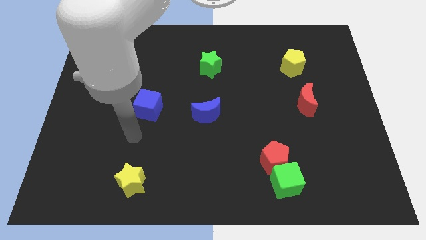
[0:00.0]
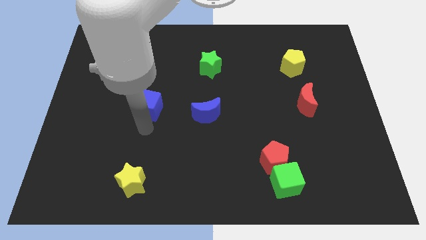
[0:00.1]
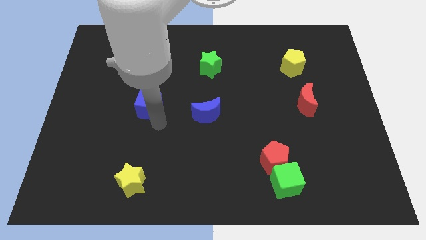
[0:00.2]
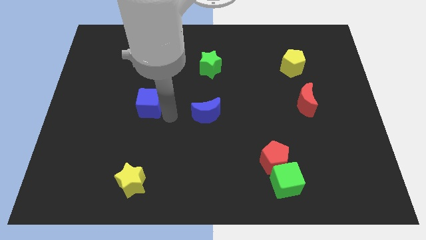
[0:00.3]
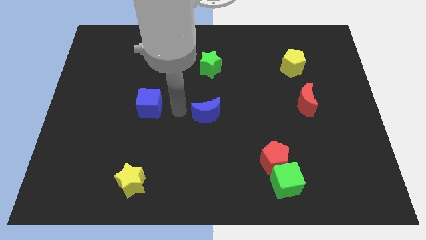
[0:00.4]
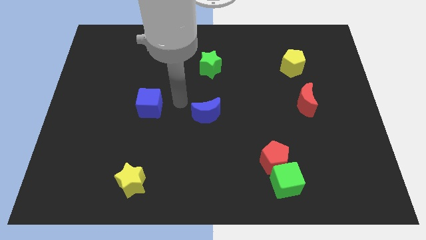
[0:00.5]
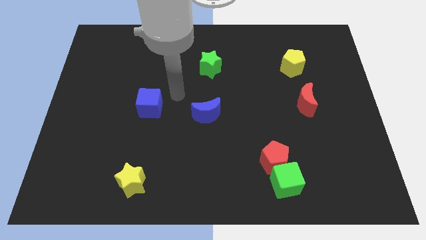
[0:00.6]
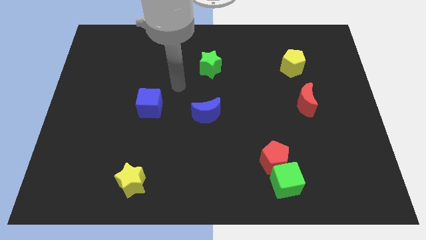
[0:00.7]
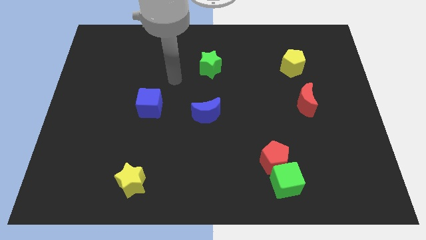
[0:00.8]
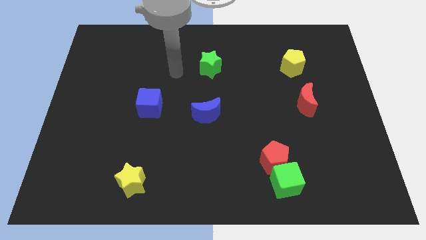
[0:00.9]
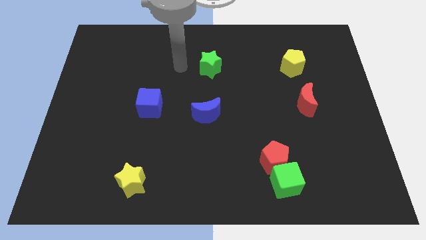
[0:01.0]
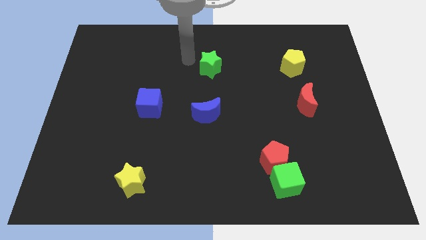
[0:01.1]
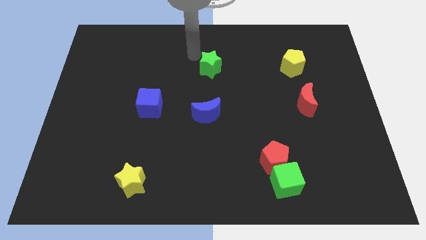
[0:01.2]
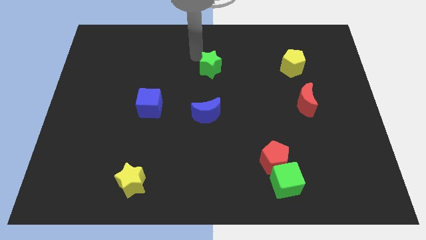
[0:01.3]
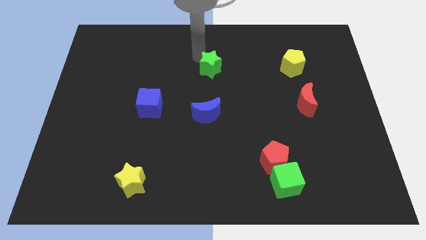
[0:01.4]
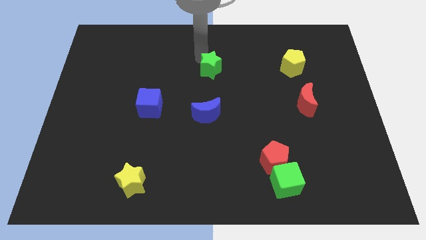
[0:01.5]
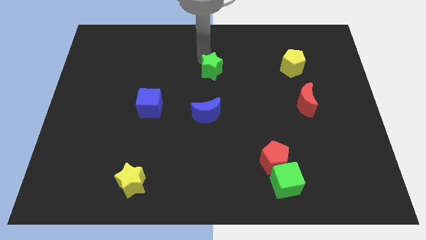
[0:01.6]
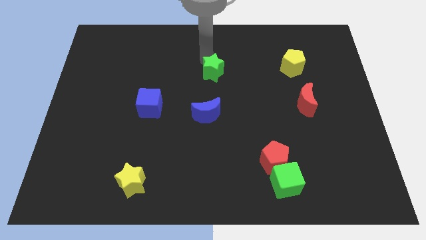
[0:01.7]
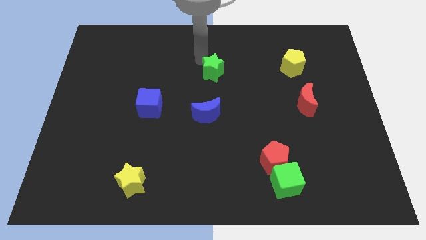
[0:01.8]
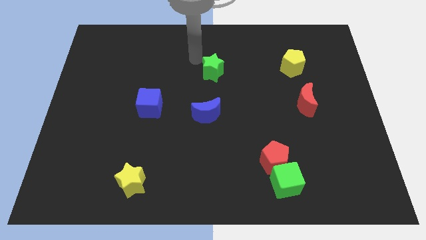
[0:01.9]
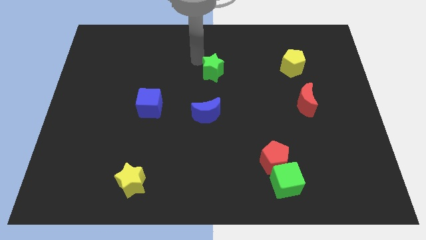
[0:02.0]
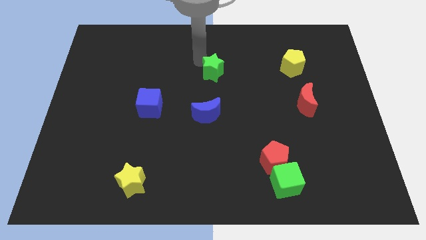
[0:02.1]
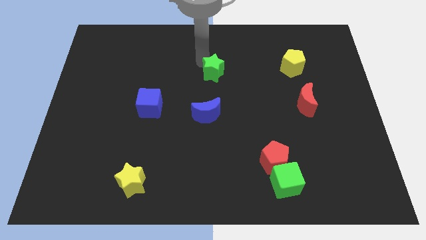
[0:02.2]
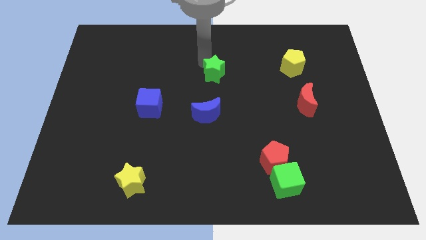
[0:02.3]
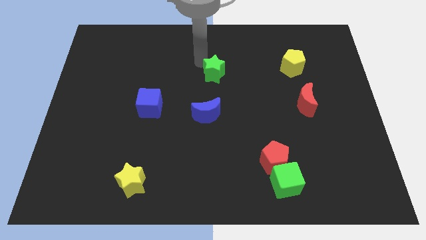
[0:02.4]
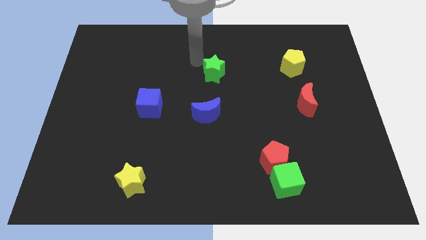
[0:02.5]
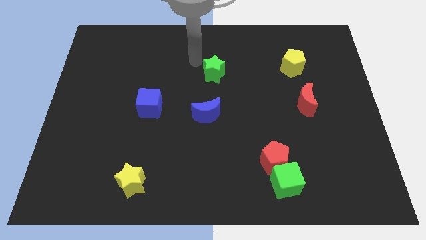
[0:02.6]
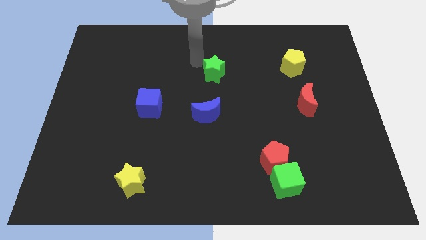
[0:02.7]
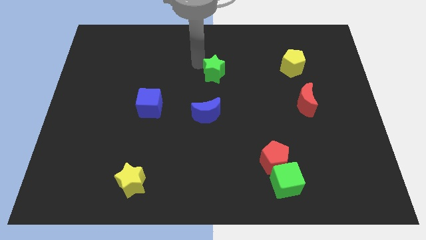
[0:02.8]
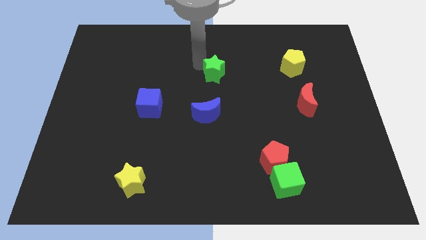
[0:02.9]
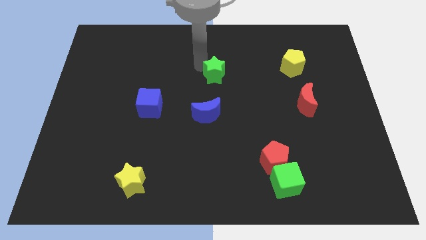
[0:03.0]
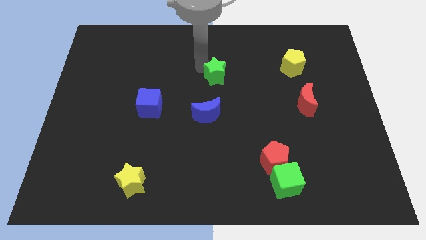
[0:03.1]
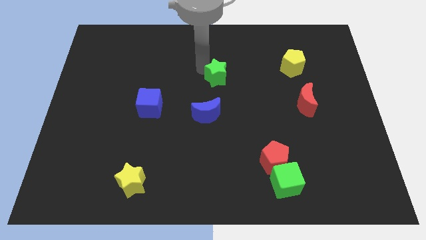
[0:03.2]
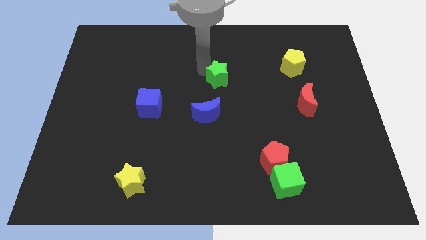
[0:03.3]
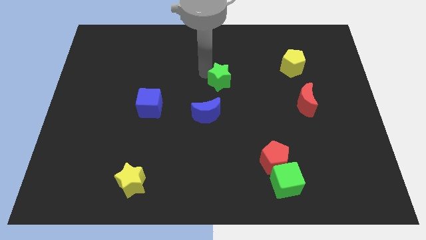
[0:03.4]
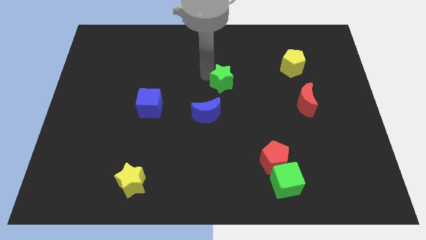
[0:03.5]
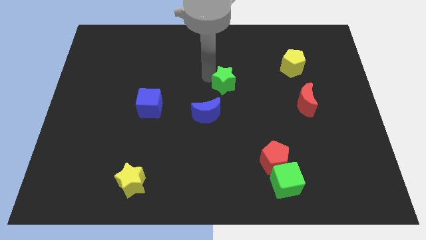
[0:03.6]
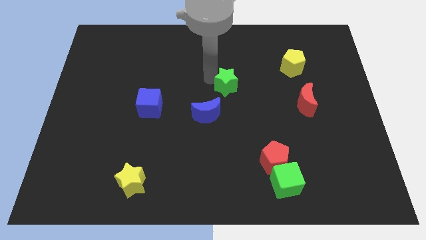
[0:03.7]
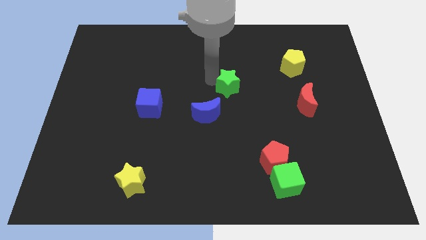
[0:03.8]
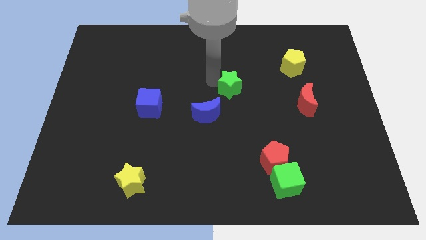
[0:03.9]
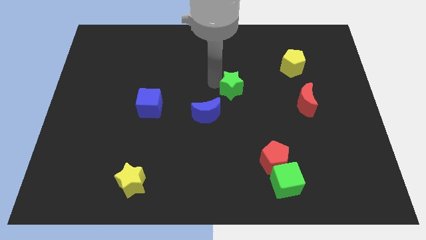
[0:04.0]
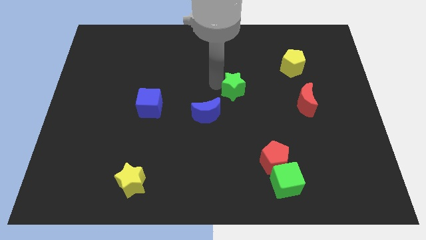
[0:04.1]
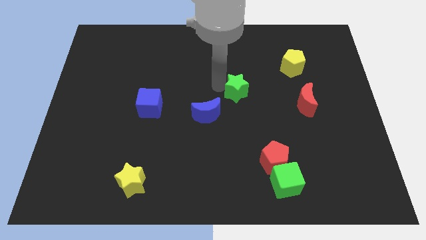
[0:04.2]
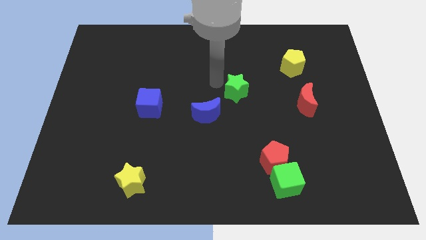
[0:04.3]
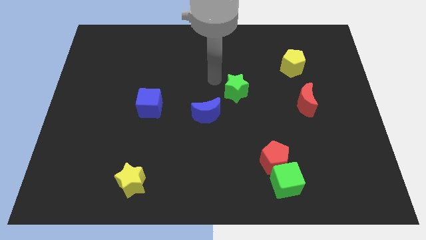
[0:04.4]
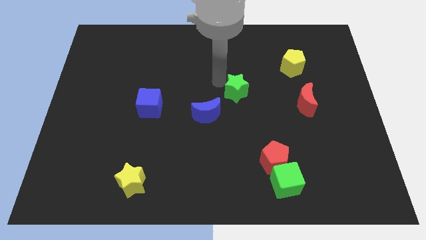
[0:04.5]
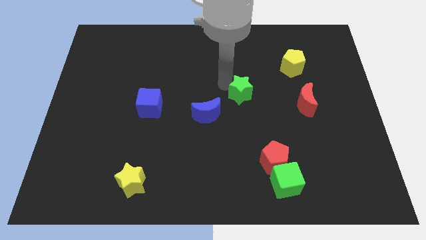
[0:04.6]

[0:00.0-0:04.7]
move the green star to the left side of the red moon

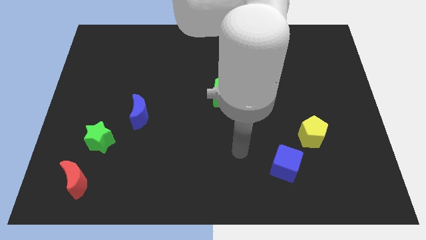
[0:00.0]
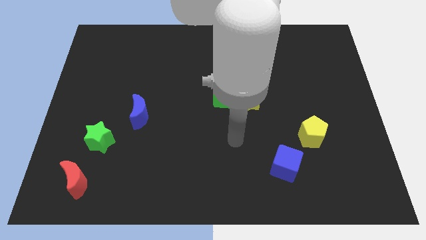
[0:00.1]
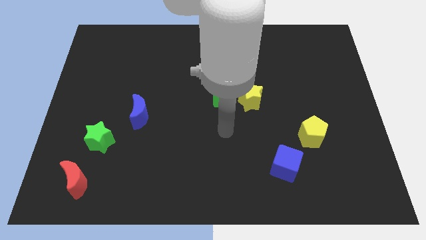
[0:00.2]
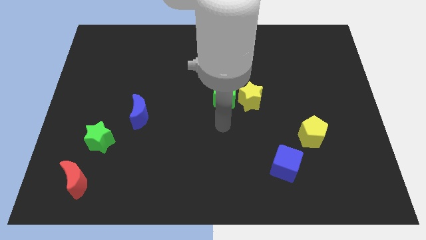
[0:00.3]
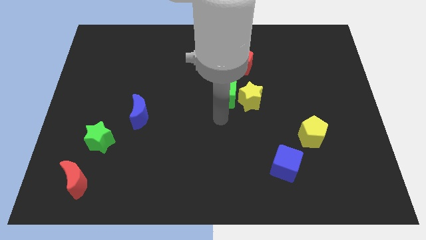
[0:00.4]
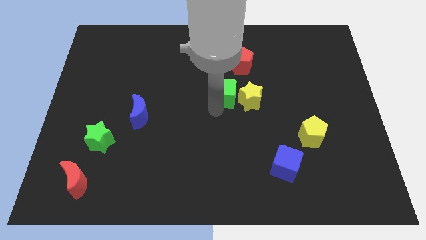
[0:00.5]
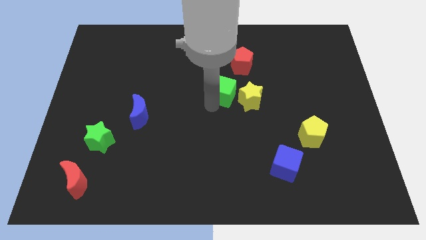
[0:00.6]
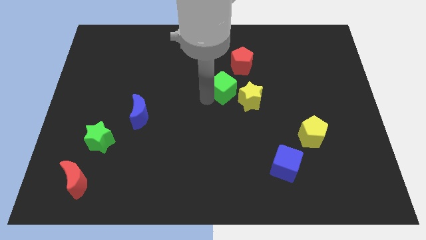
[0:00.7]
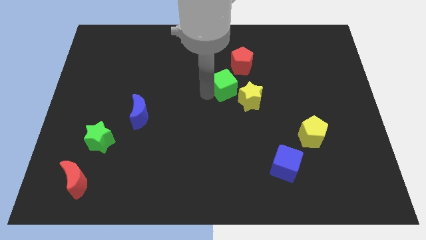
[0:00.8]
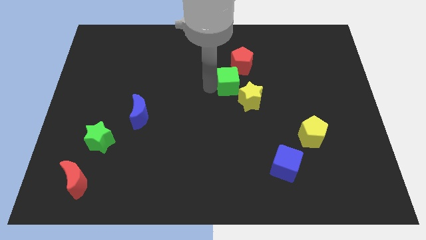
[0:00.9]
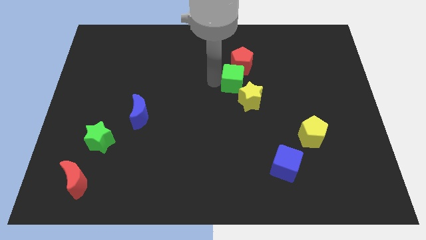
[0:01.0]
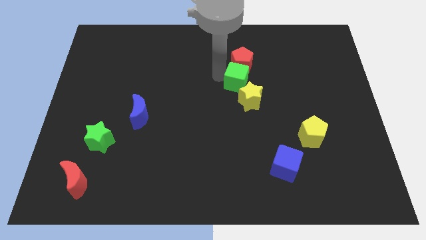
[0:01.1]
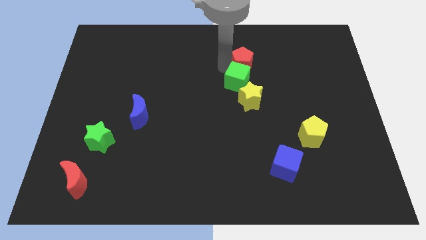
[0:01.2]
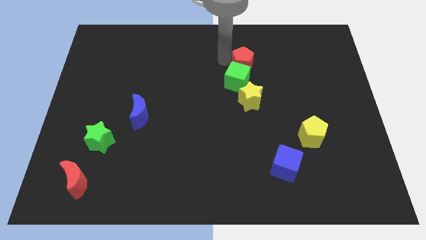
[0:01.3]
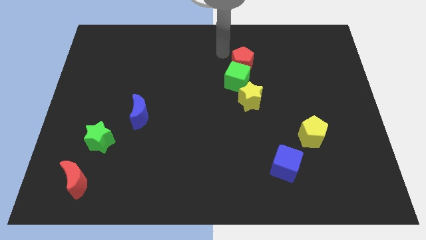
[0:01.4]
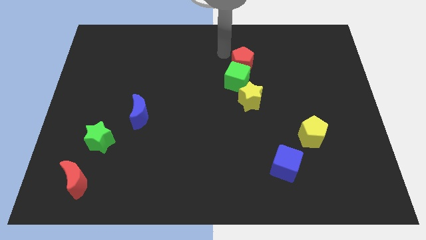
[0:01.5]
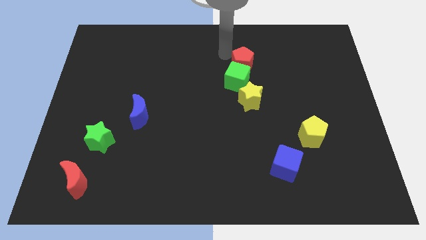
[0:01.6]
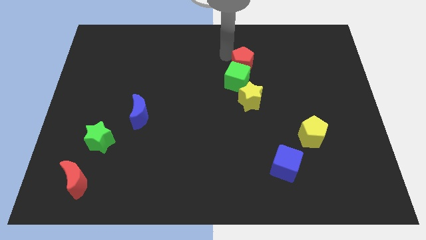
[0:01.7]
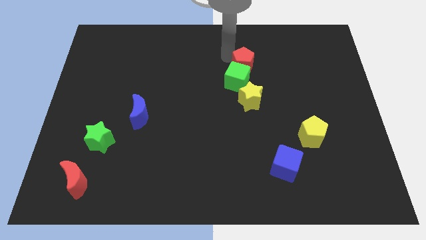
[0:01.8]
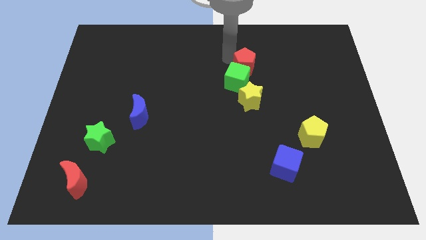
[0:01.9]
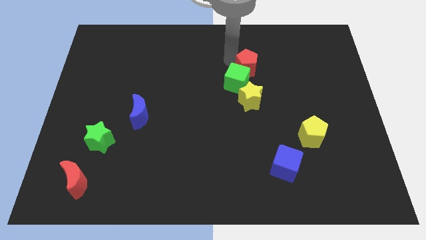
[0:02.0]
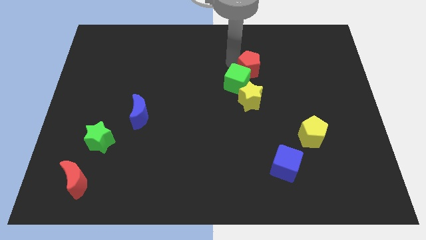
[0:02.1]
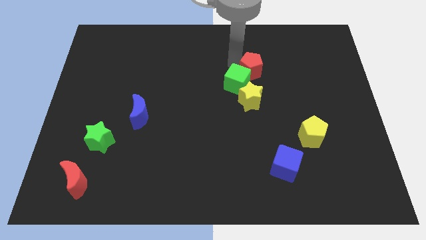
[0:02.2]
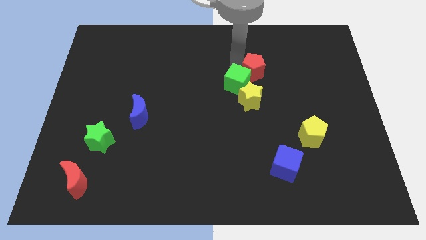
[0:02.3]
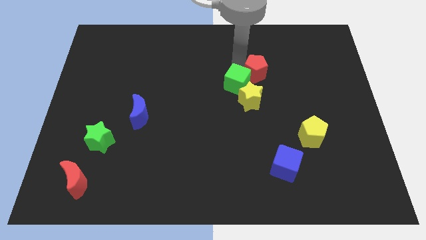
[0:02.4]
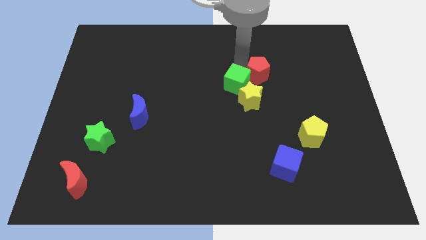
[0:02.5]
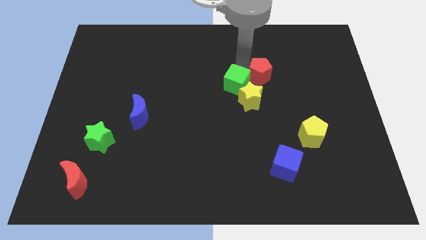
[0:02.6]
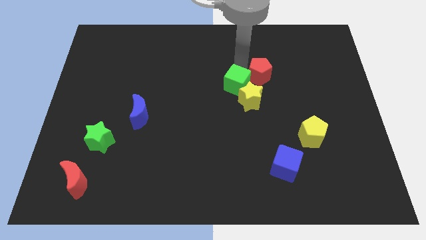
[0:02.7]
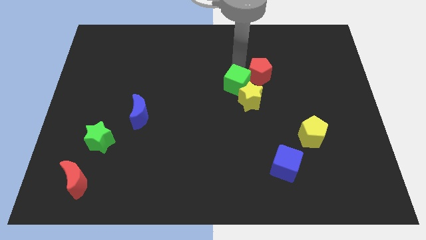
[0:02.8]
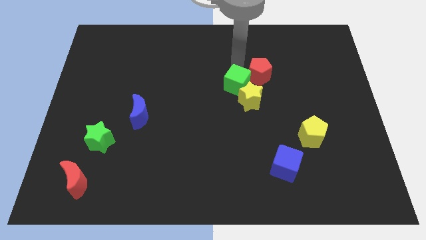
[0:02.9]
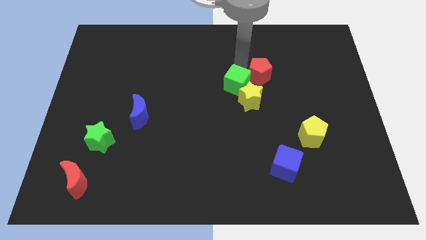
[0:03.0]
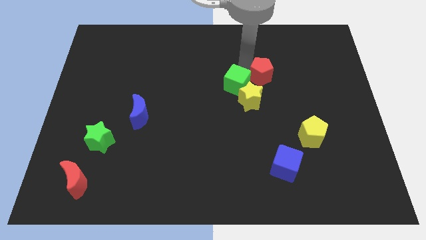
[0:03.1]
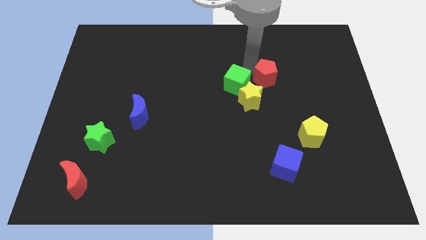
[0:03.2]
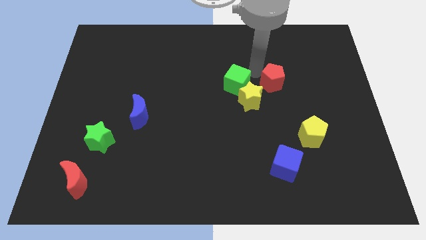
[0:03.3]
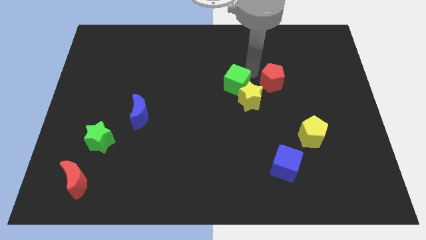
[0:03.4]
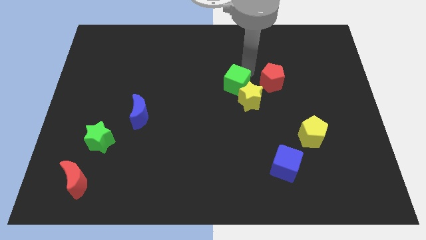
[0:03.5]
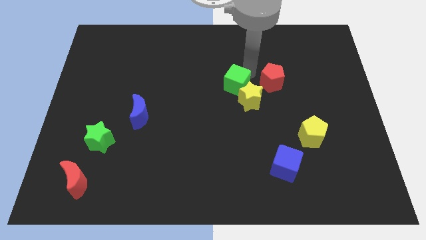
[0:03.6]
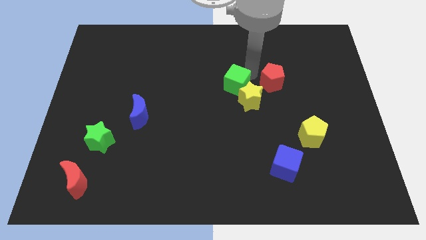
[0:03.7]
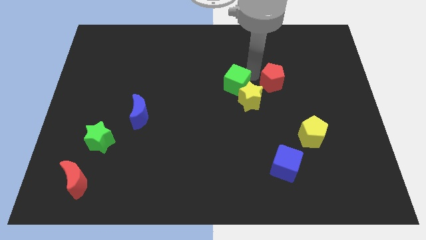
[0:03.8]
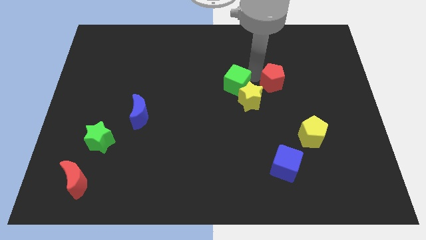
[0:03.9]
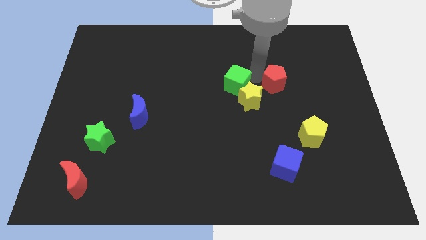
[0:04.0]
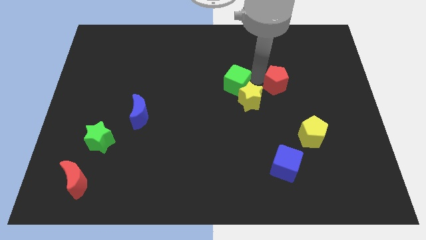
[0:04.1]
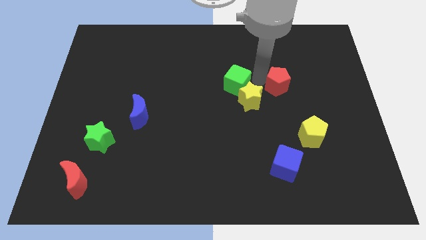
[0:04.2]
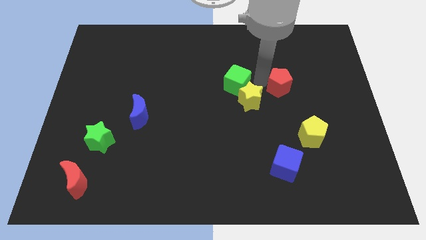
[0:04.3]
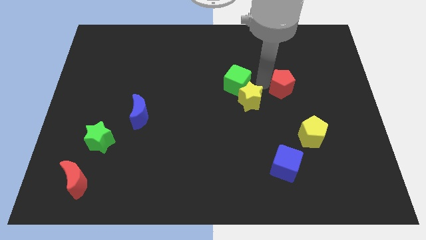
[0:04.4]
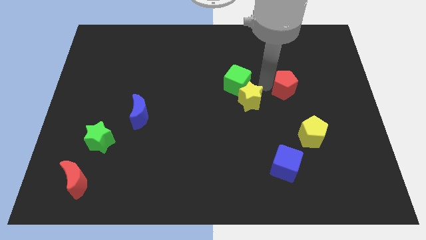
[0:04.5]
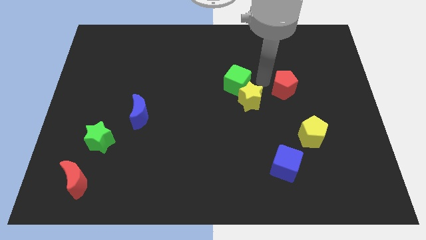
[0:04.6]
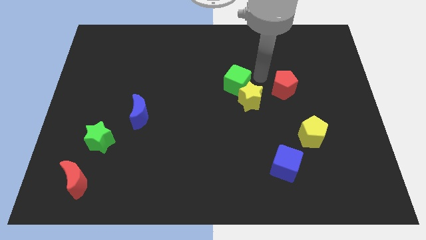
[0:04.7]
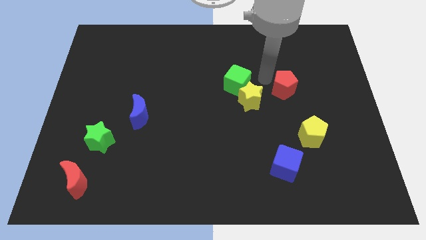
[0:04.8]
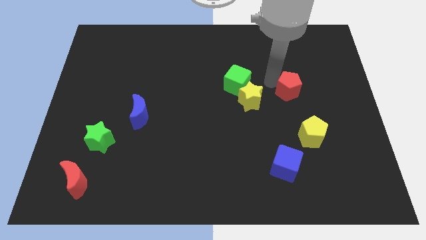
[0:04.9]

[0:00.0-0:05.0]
move the red pentagon above the yellow pentagon
